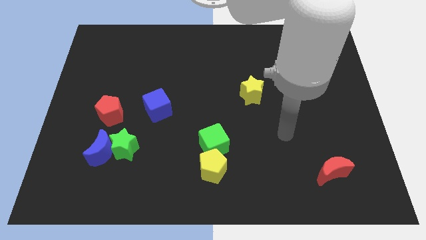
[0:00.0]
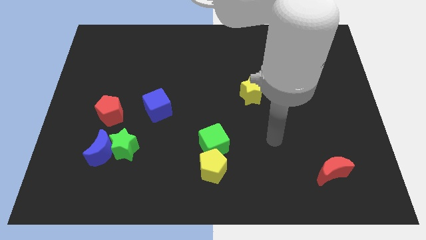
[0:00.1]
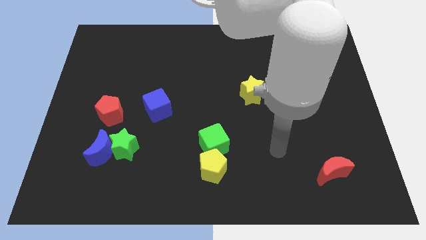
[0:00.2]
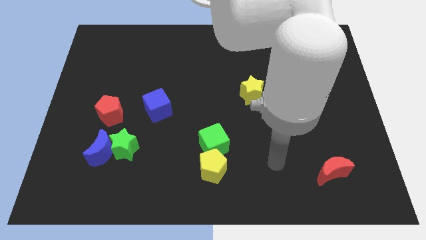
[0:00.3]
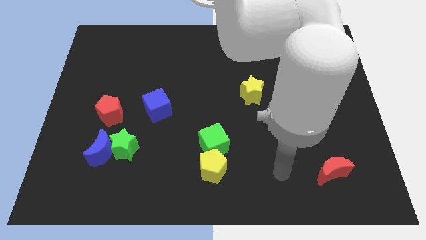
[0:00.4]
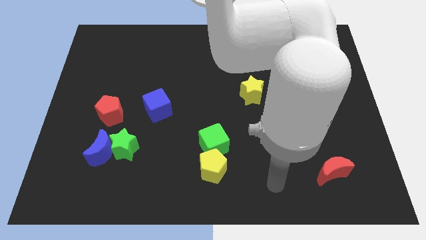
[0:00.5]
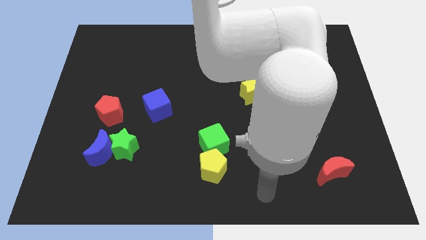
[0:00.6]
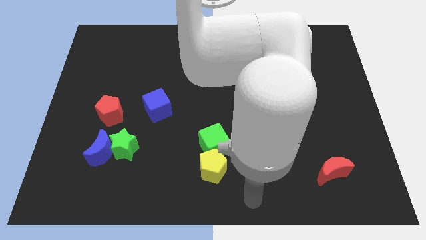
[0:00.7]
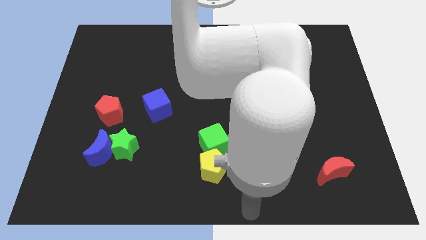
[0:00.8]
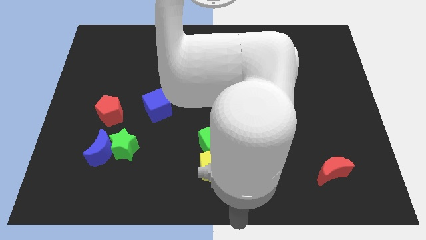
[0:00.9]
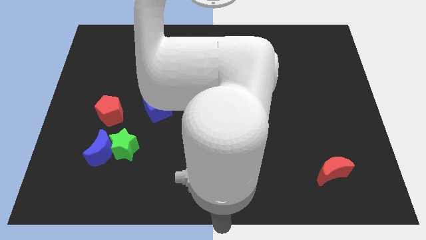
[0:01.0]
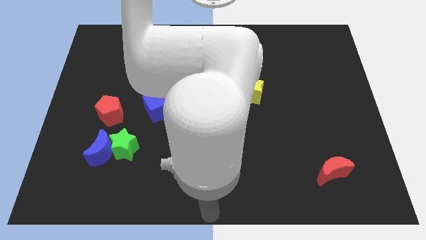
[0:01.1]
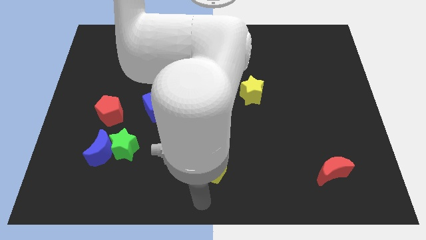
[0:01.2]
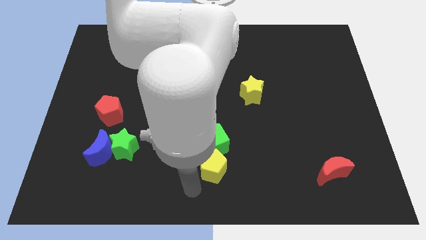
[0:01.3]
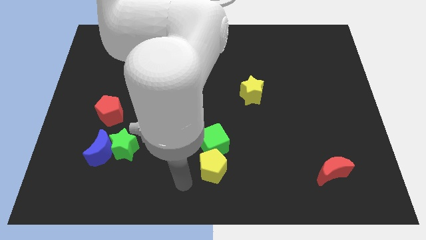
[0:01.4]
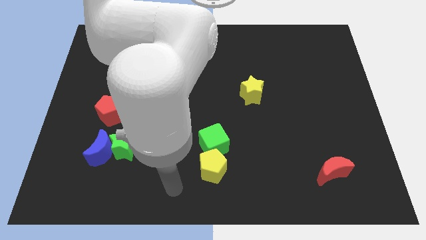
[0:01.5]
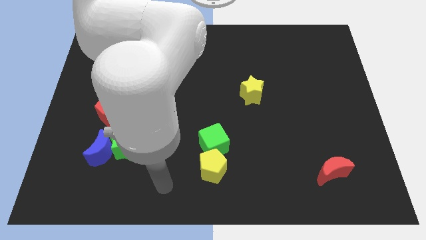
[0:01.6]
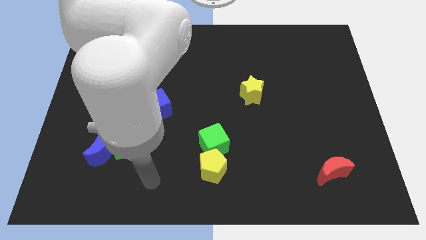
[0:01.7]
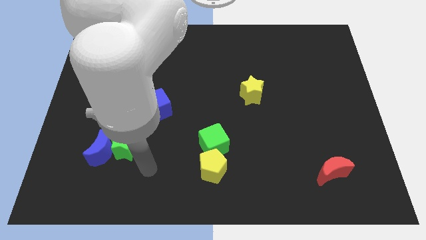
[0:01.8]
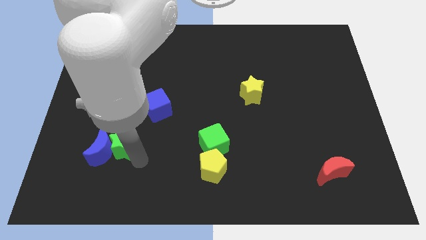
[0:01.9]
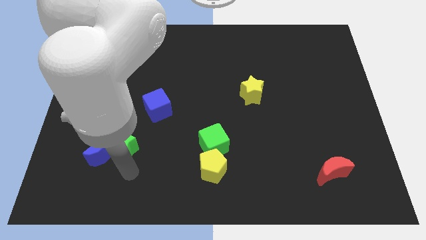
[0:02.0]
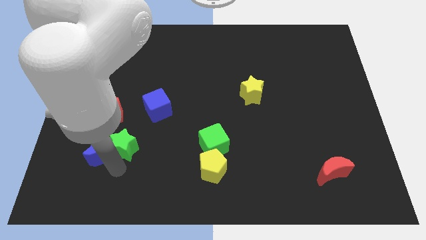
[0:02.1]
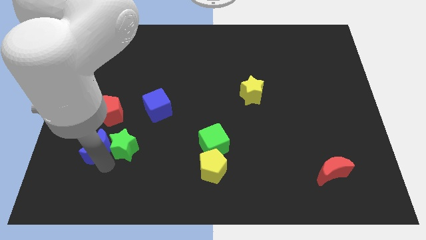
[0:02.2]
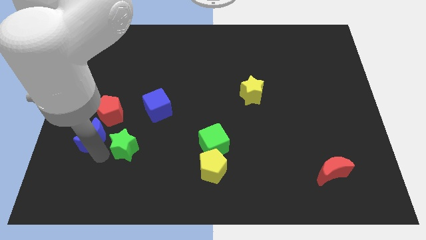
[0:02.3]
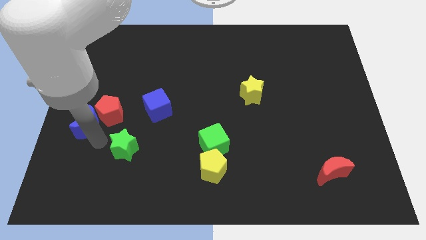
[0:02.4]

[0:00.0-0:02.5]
separate the green star from the blue moon

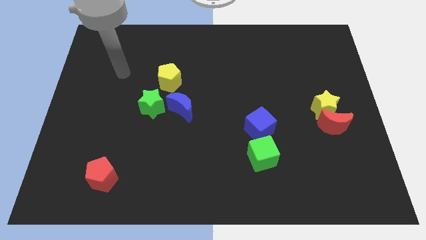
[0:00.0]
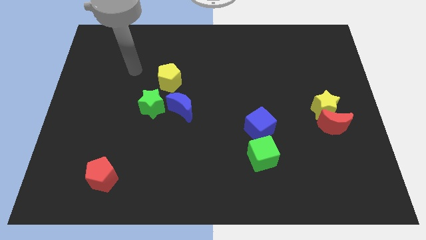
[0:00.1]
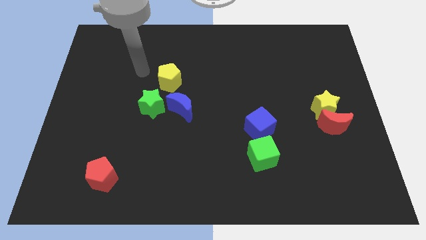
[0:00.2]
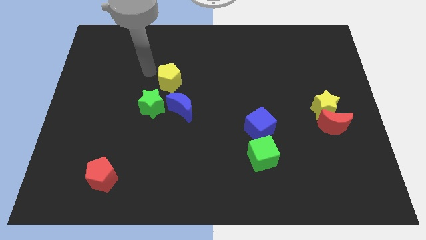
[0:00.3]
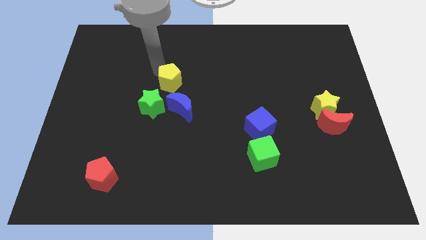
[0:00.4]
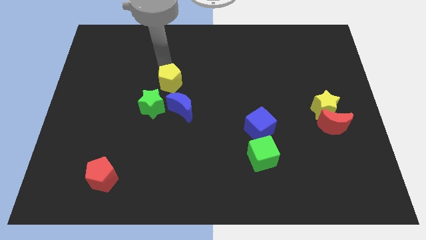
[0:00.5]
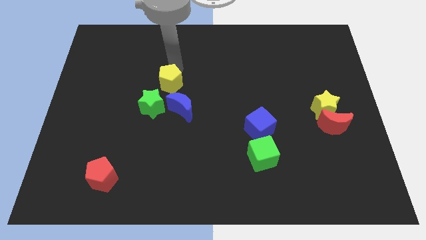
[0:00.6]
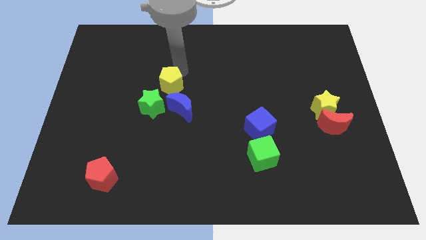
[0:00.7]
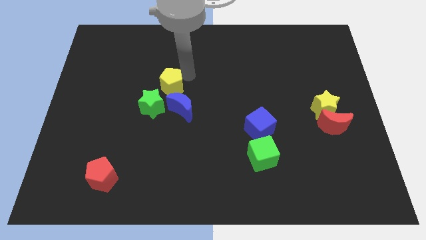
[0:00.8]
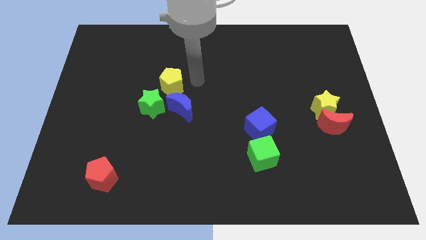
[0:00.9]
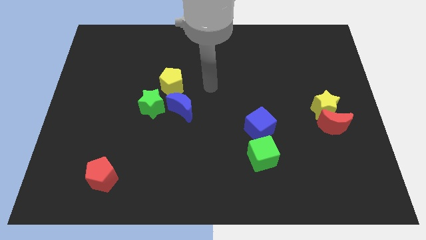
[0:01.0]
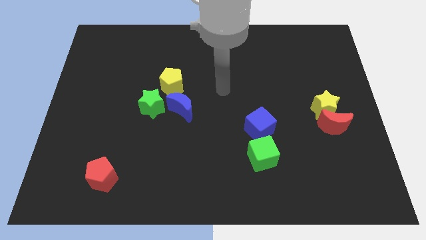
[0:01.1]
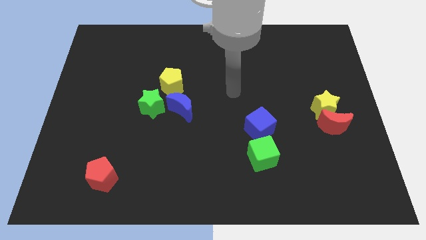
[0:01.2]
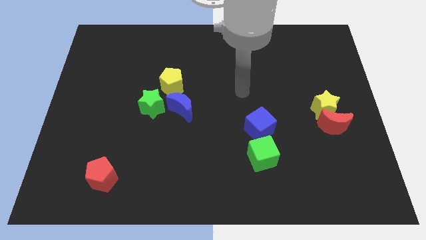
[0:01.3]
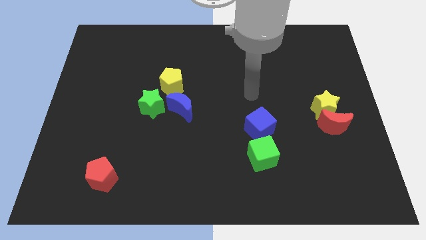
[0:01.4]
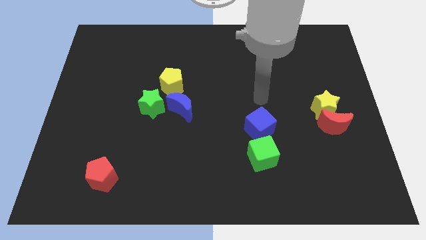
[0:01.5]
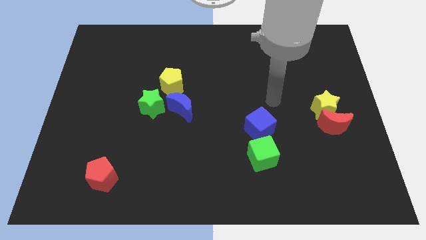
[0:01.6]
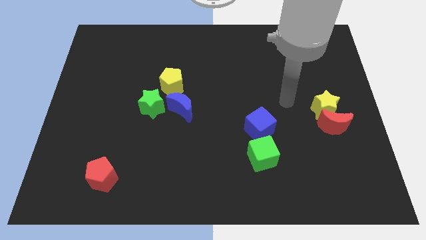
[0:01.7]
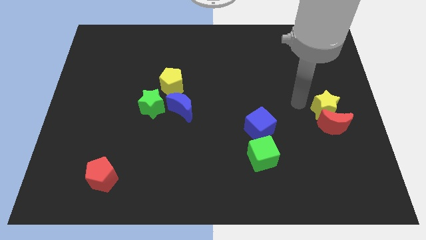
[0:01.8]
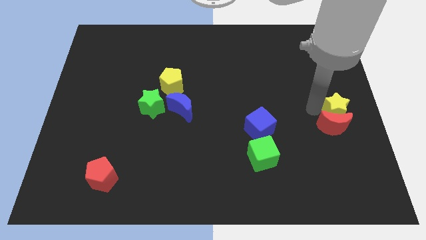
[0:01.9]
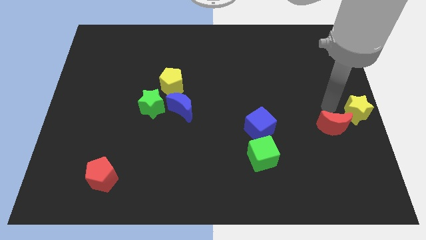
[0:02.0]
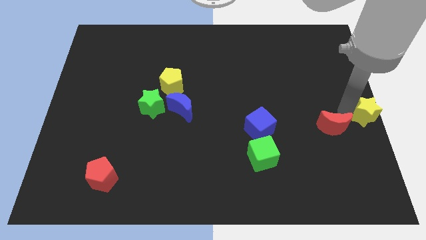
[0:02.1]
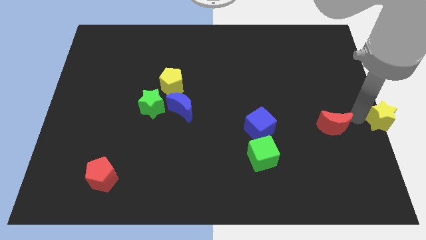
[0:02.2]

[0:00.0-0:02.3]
separate the red moon from the yellow star

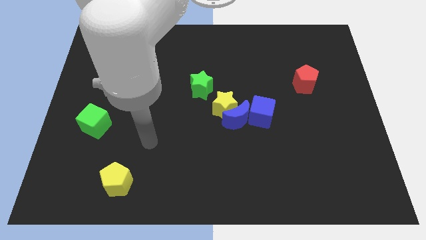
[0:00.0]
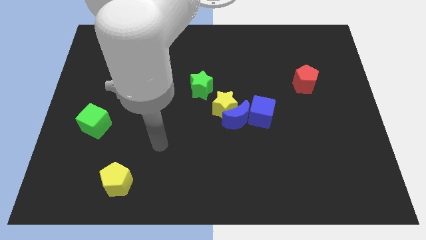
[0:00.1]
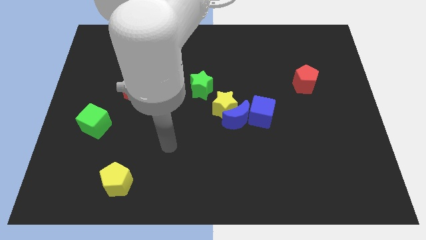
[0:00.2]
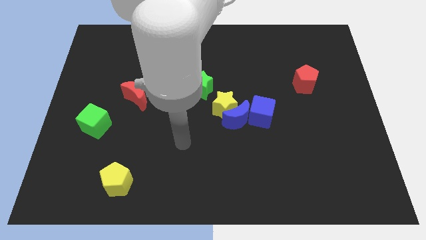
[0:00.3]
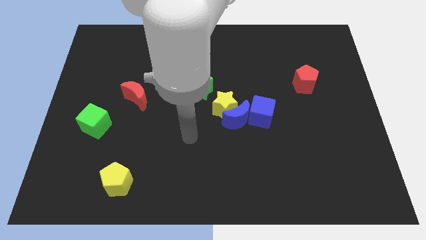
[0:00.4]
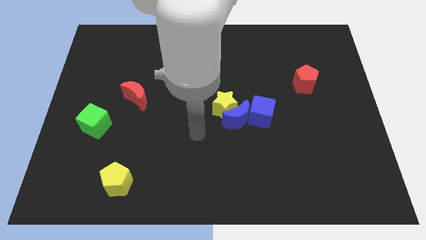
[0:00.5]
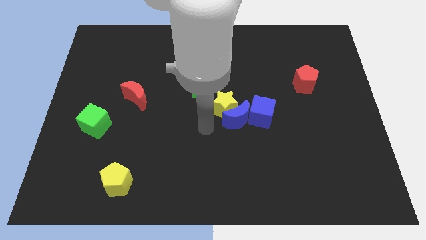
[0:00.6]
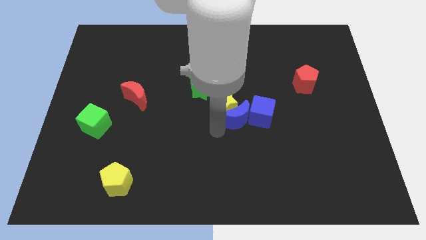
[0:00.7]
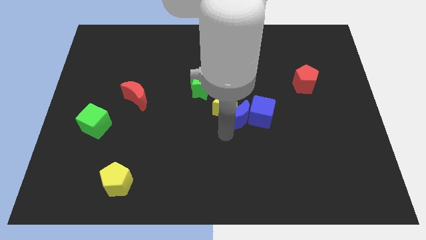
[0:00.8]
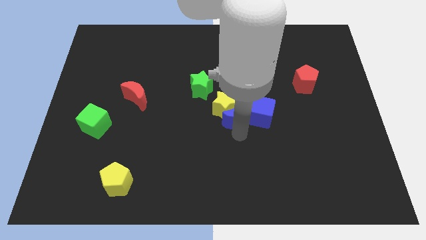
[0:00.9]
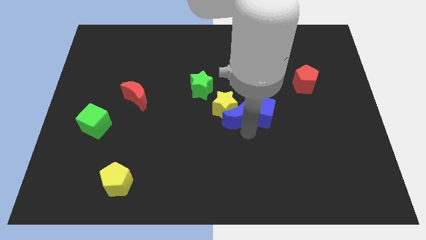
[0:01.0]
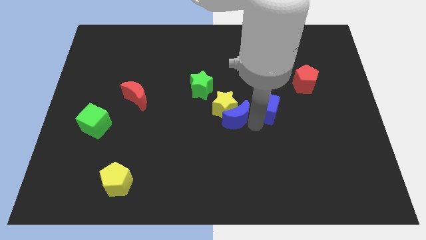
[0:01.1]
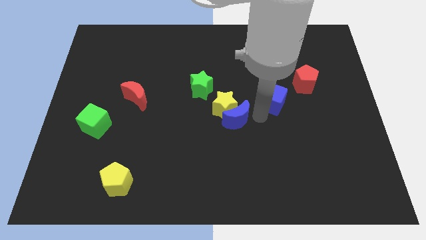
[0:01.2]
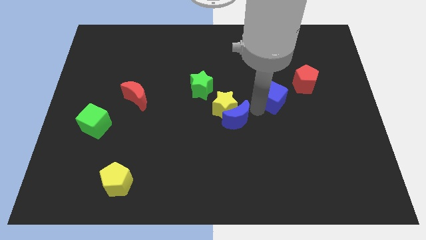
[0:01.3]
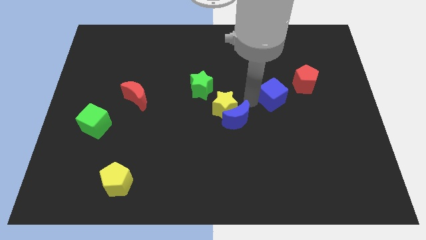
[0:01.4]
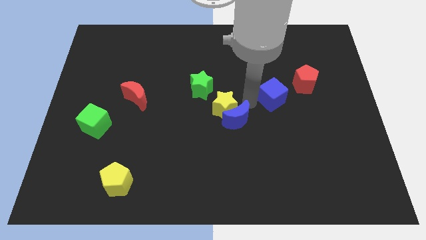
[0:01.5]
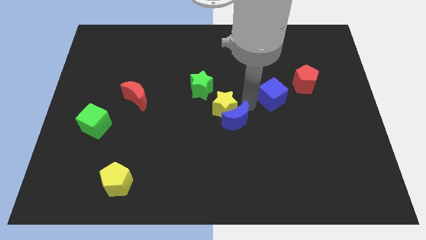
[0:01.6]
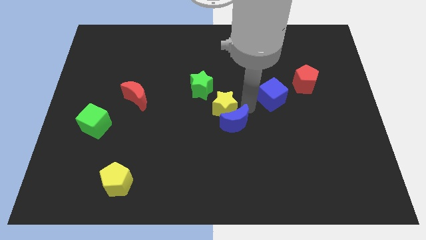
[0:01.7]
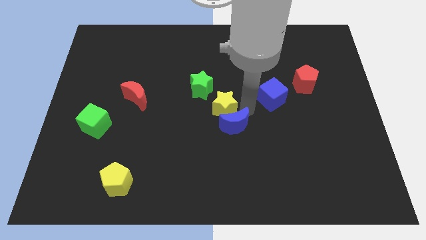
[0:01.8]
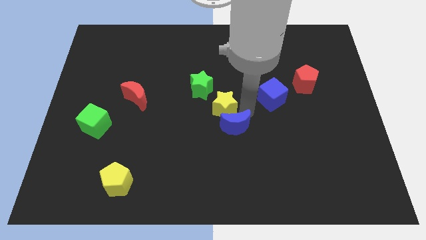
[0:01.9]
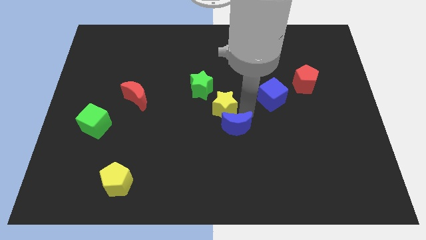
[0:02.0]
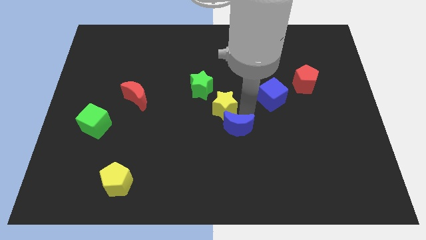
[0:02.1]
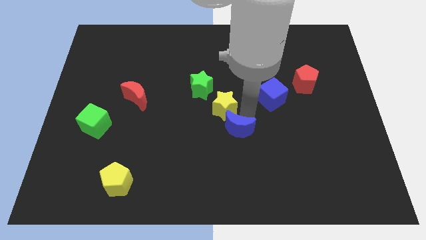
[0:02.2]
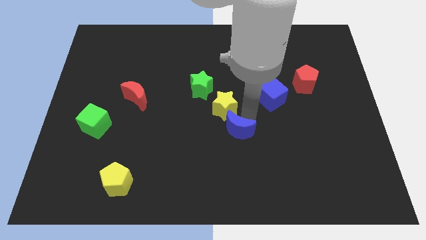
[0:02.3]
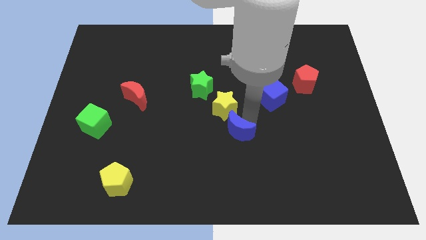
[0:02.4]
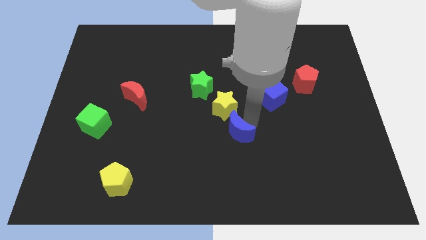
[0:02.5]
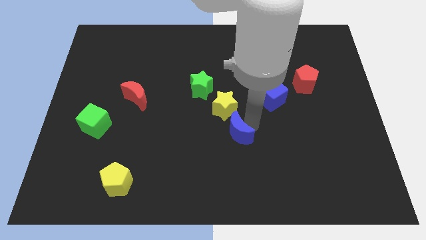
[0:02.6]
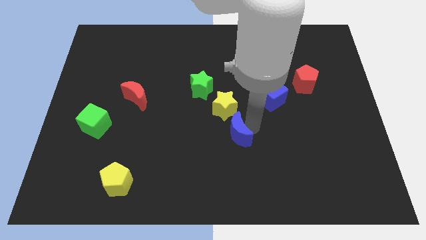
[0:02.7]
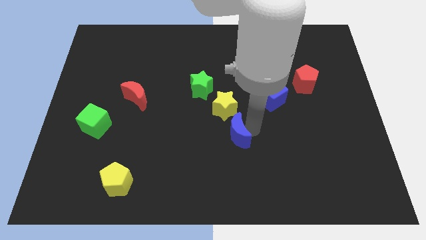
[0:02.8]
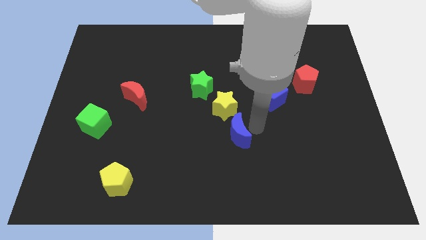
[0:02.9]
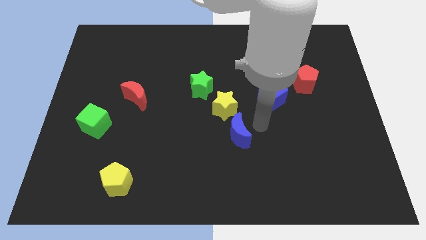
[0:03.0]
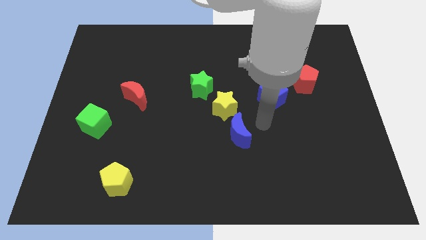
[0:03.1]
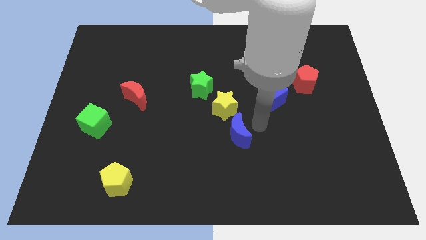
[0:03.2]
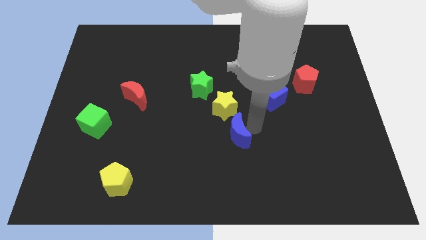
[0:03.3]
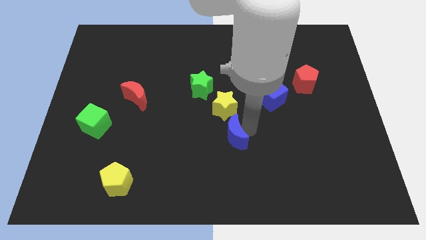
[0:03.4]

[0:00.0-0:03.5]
move the blue moon away from the yellow star and blue cube

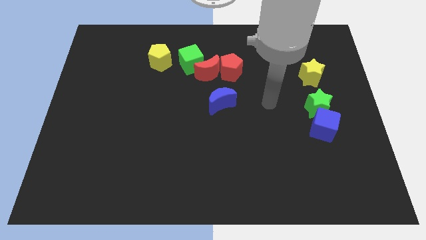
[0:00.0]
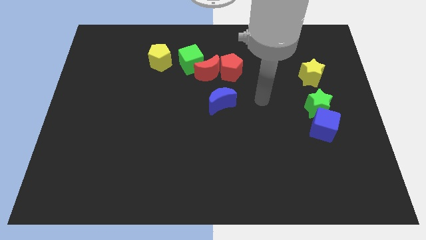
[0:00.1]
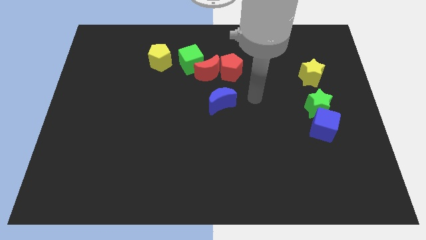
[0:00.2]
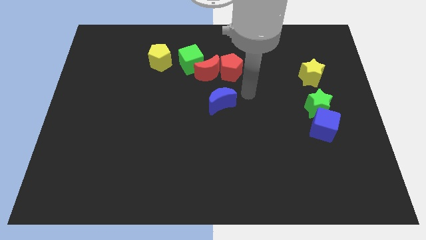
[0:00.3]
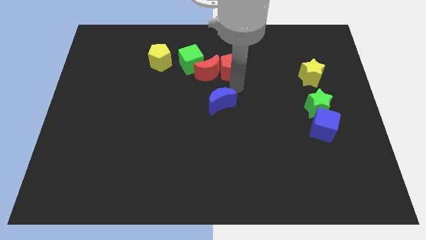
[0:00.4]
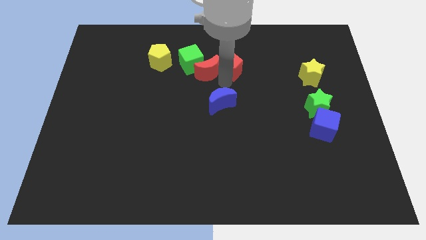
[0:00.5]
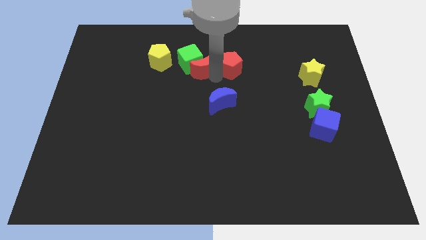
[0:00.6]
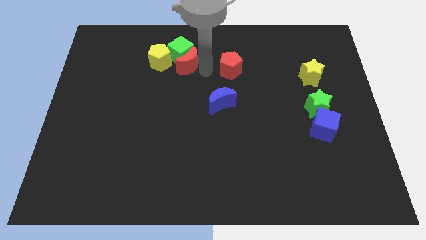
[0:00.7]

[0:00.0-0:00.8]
pull the red pentagon apart from the red moon

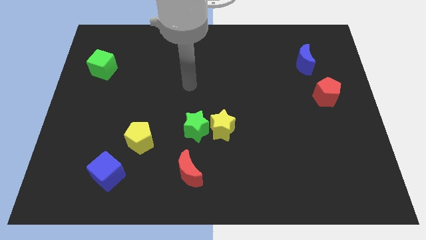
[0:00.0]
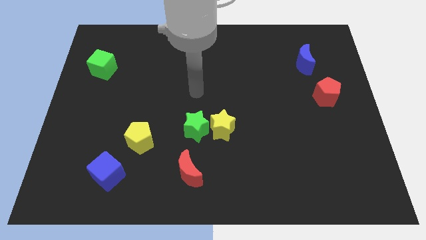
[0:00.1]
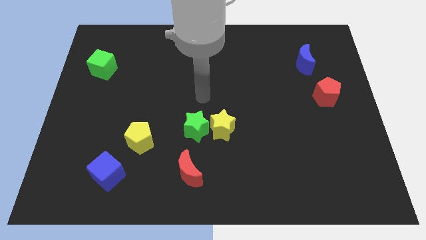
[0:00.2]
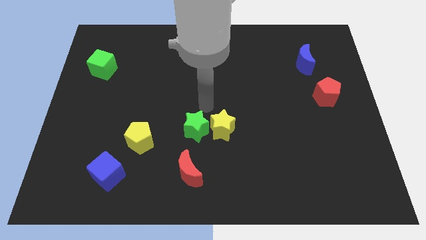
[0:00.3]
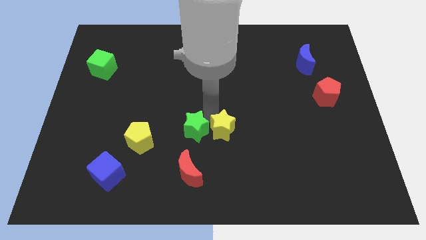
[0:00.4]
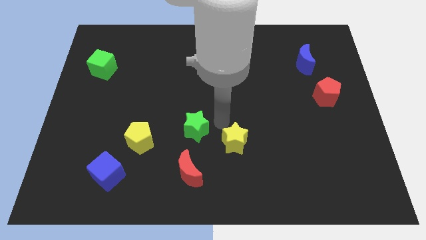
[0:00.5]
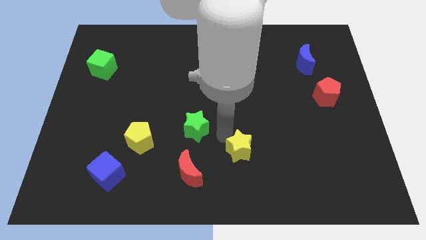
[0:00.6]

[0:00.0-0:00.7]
separate the green star from the yellow star
